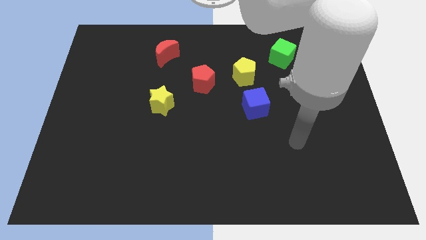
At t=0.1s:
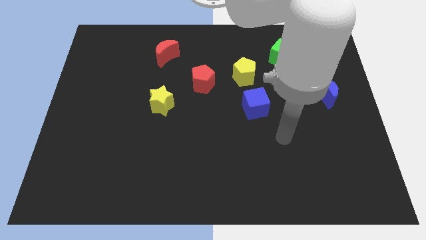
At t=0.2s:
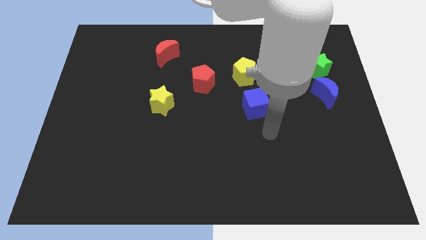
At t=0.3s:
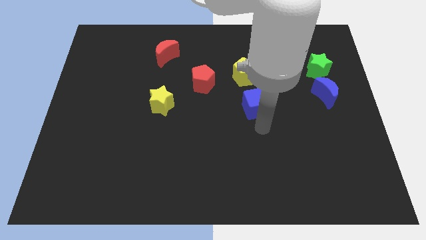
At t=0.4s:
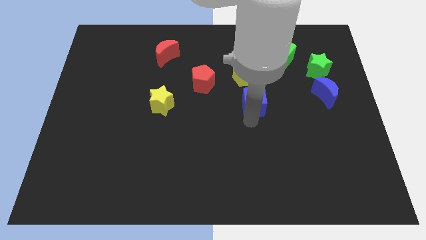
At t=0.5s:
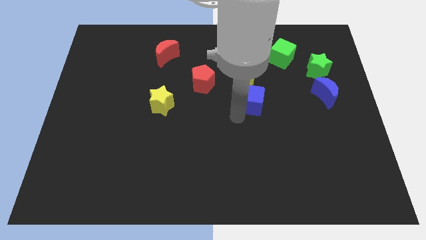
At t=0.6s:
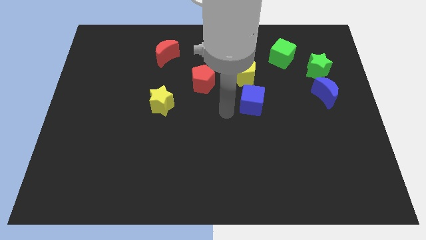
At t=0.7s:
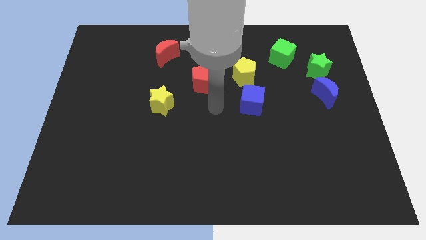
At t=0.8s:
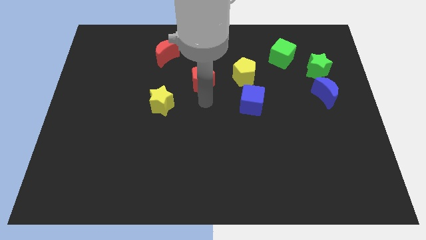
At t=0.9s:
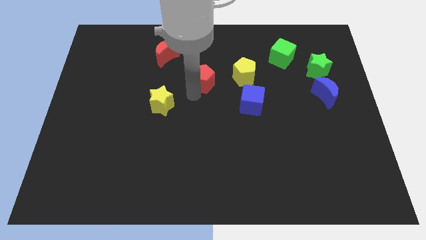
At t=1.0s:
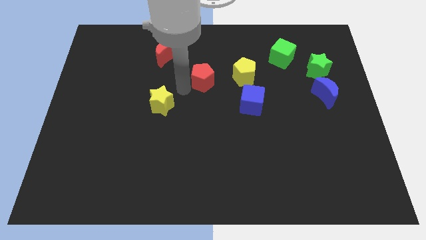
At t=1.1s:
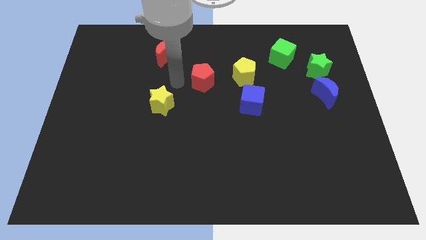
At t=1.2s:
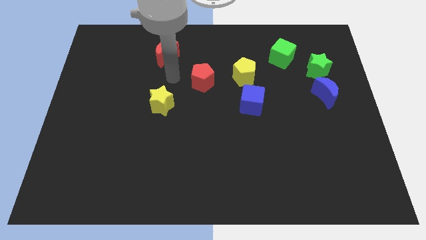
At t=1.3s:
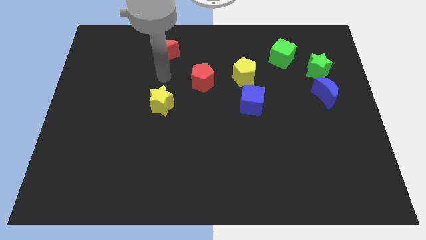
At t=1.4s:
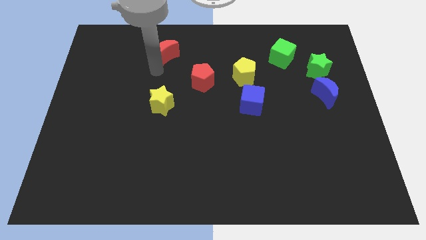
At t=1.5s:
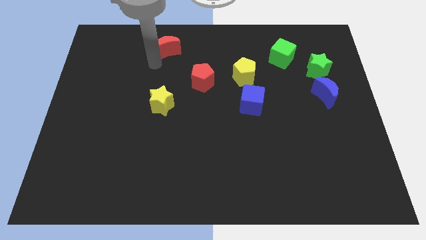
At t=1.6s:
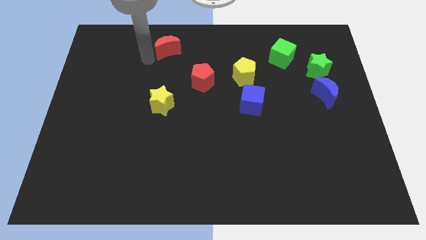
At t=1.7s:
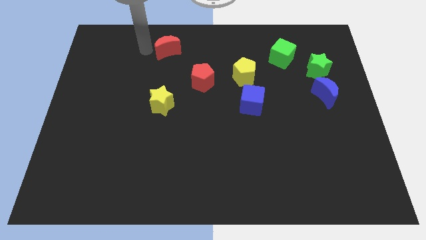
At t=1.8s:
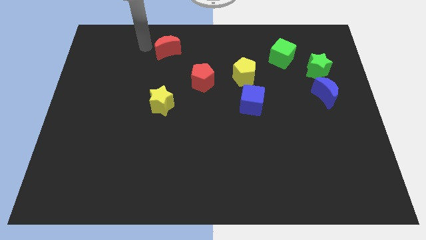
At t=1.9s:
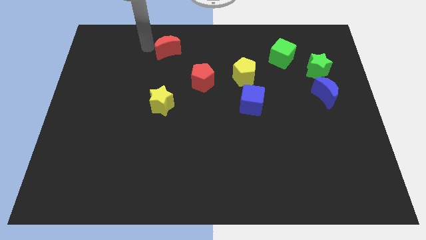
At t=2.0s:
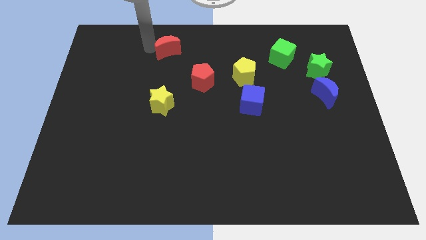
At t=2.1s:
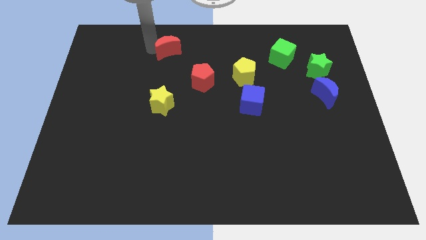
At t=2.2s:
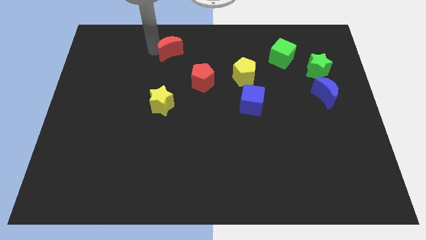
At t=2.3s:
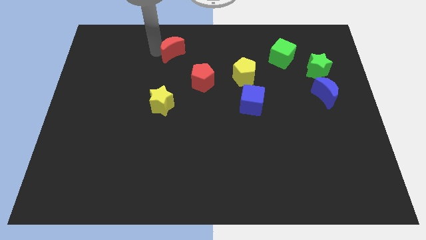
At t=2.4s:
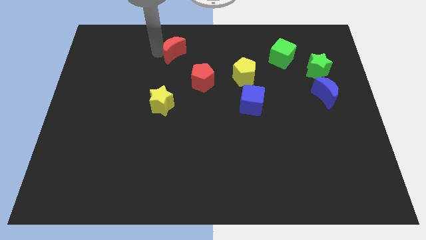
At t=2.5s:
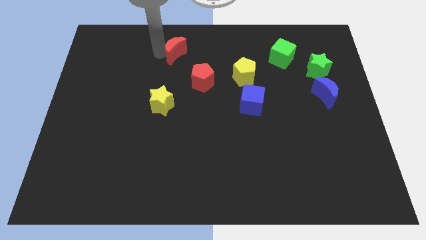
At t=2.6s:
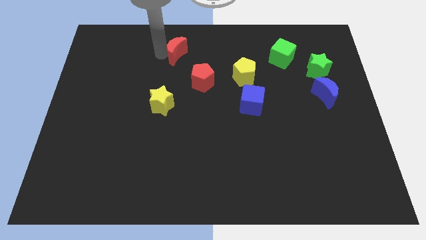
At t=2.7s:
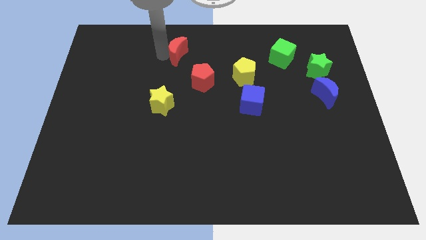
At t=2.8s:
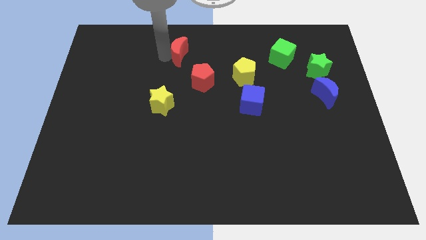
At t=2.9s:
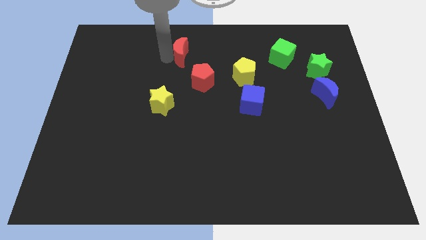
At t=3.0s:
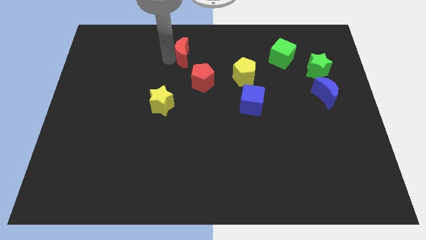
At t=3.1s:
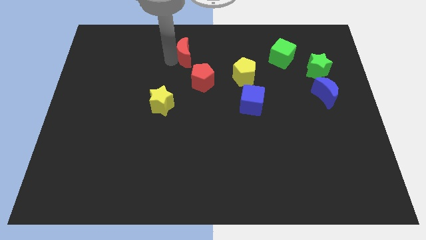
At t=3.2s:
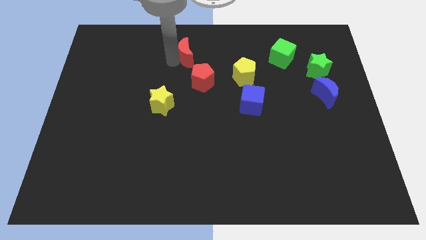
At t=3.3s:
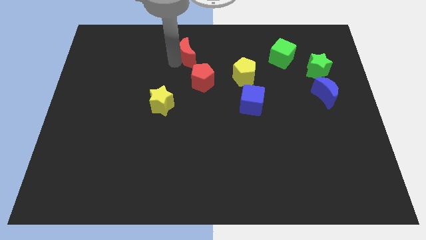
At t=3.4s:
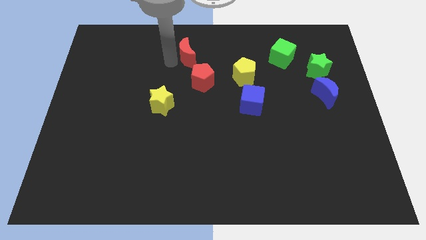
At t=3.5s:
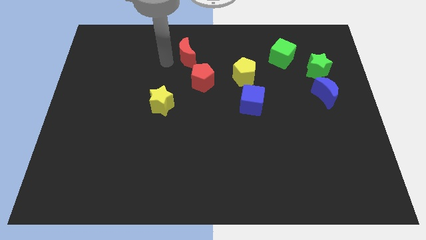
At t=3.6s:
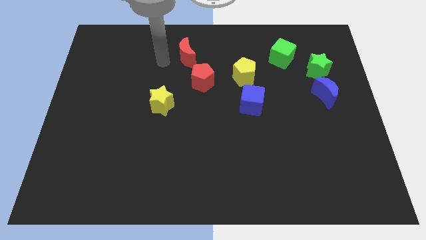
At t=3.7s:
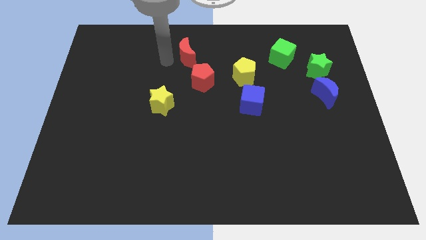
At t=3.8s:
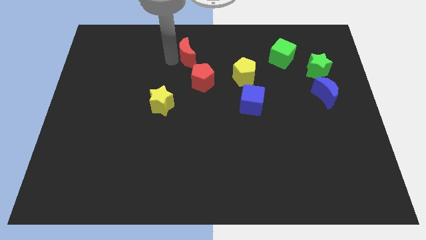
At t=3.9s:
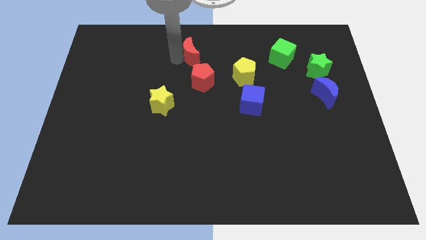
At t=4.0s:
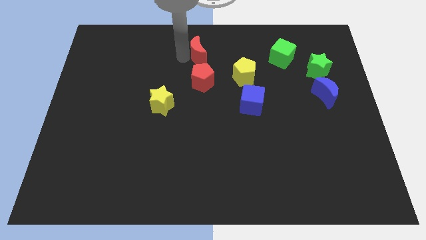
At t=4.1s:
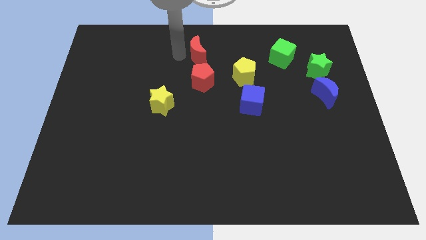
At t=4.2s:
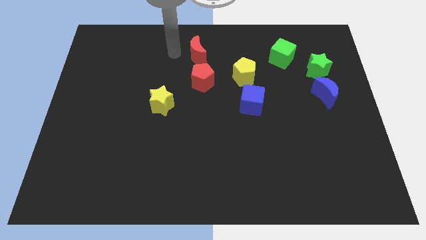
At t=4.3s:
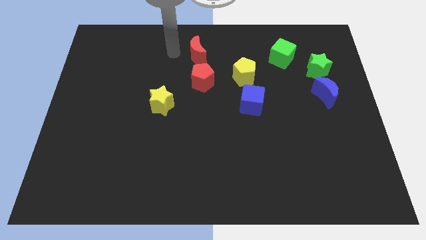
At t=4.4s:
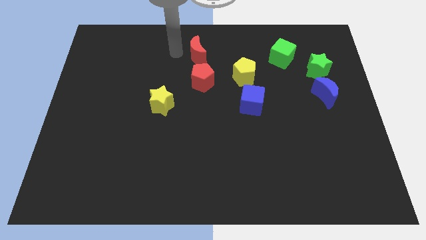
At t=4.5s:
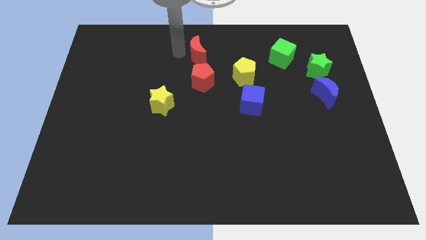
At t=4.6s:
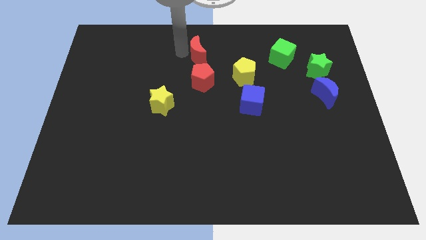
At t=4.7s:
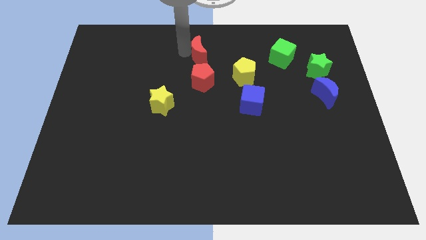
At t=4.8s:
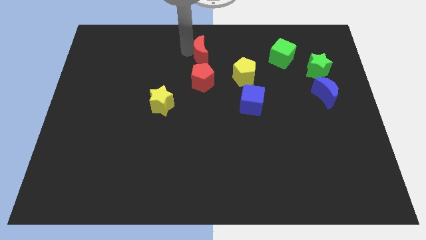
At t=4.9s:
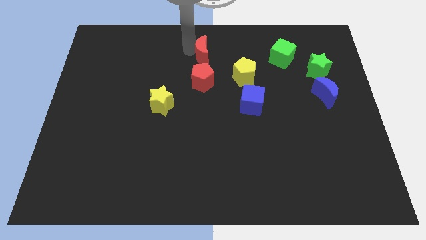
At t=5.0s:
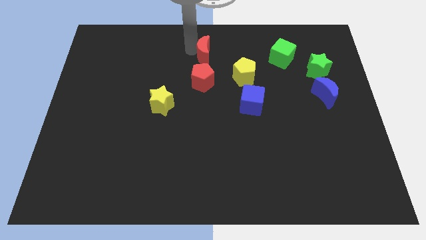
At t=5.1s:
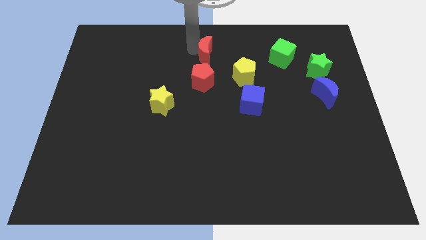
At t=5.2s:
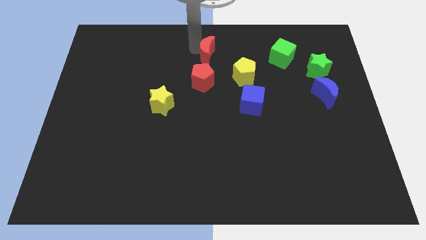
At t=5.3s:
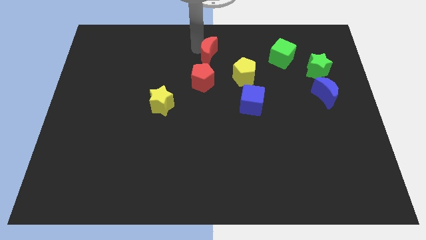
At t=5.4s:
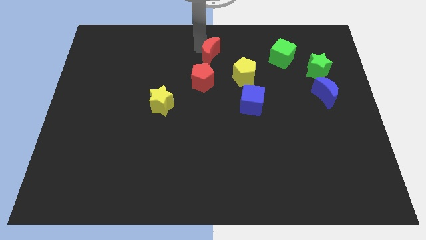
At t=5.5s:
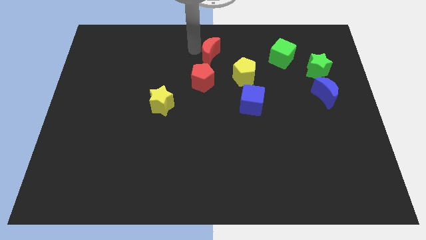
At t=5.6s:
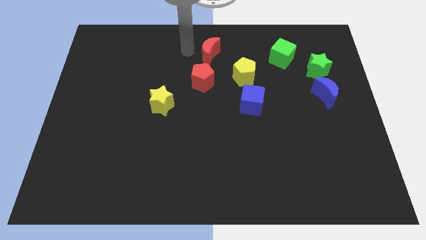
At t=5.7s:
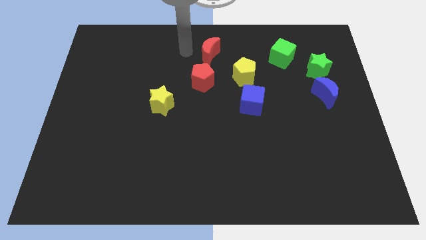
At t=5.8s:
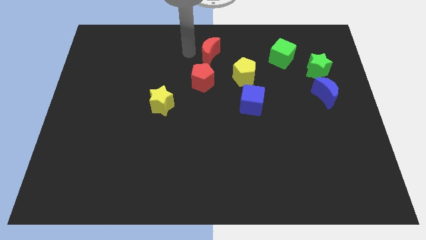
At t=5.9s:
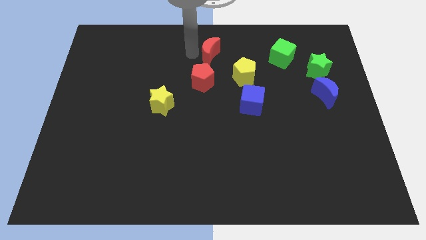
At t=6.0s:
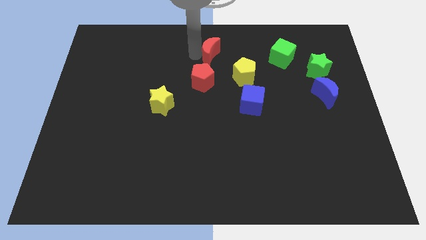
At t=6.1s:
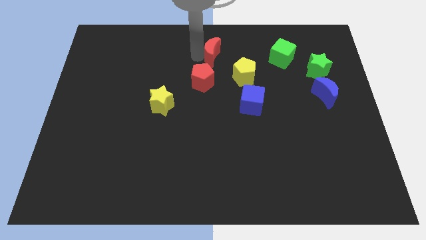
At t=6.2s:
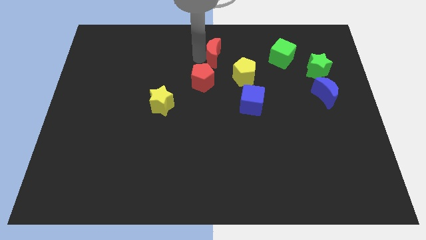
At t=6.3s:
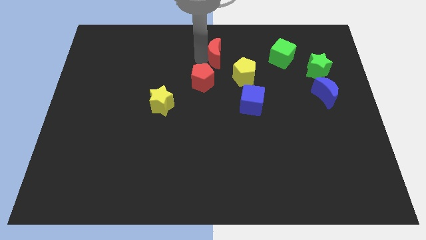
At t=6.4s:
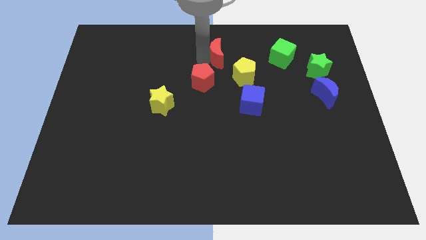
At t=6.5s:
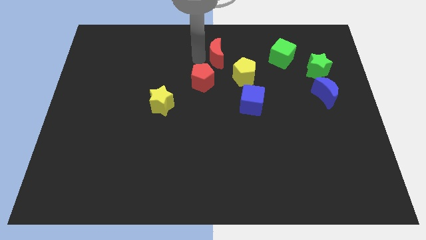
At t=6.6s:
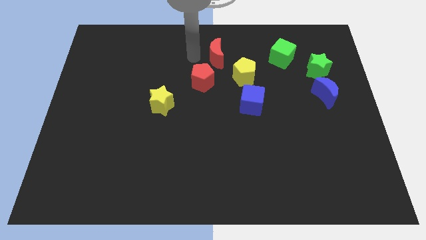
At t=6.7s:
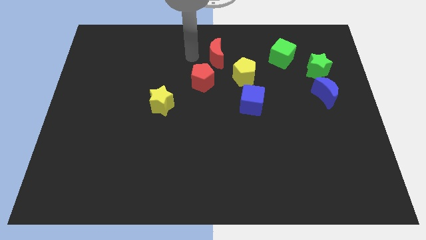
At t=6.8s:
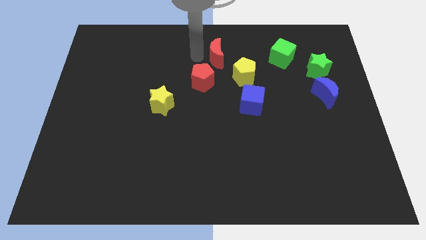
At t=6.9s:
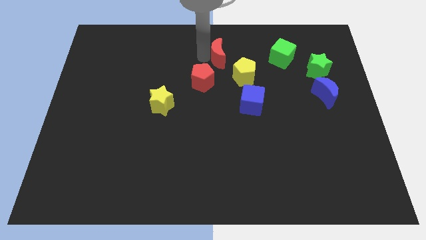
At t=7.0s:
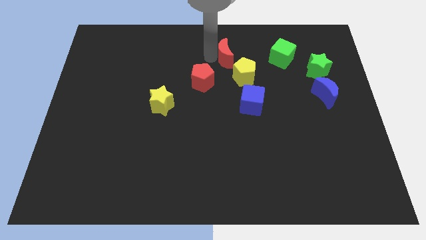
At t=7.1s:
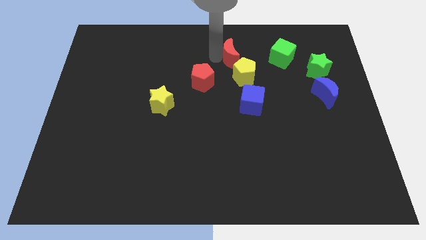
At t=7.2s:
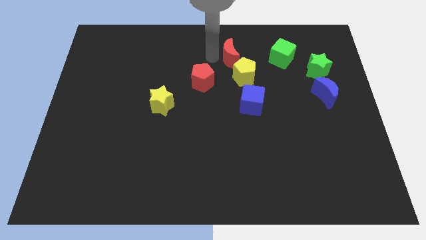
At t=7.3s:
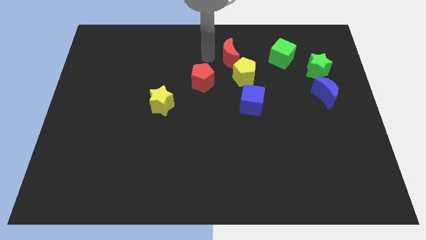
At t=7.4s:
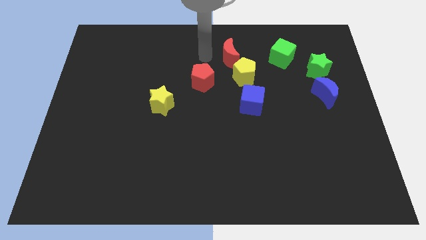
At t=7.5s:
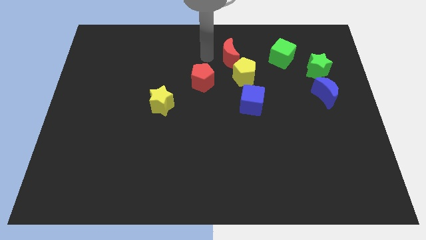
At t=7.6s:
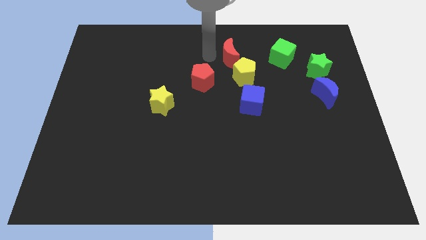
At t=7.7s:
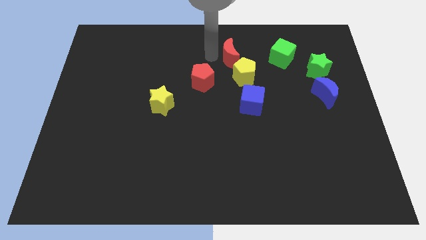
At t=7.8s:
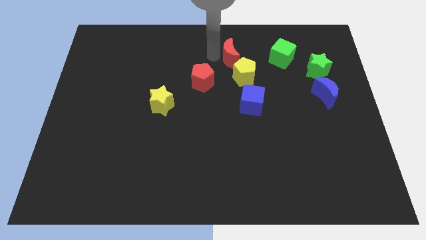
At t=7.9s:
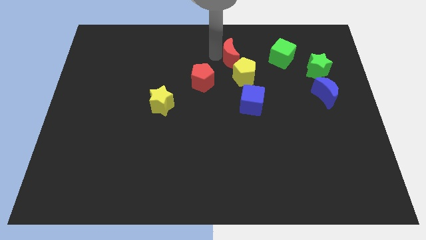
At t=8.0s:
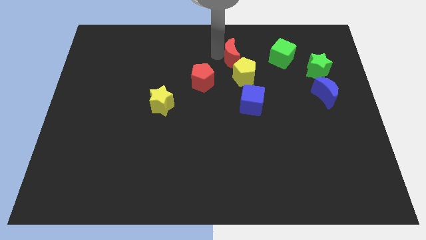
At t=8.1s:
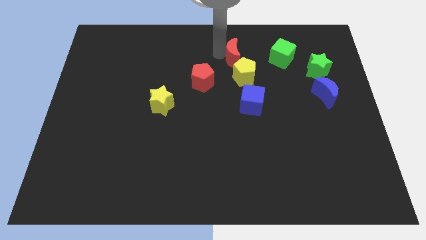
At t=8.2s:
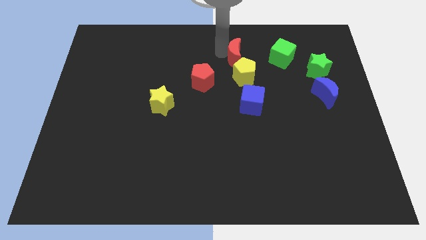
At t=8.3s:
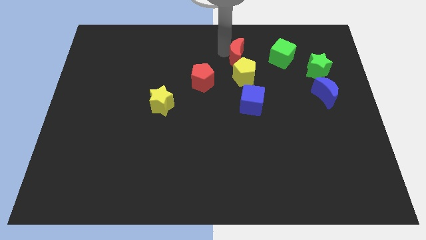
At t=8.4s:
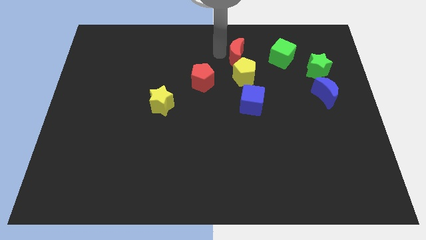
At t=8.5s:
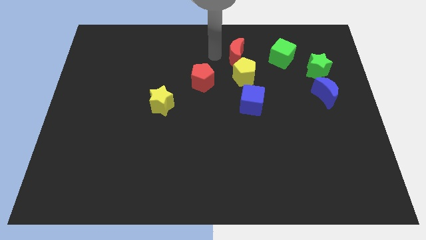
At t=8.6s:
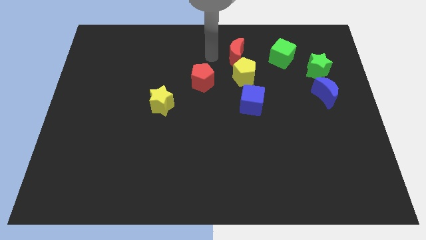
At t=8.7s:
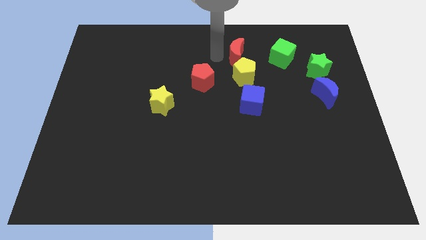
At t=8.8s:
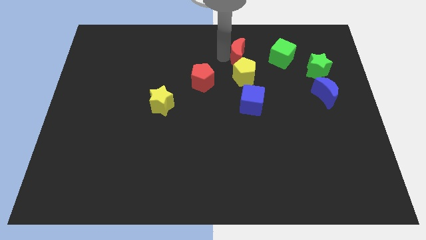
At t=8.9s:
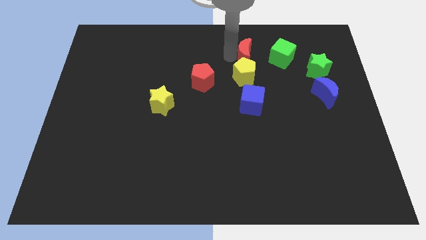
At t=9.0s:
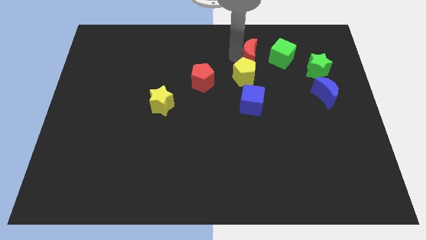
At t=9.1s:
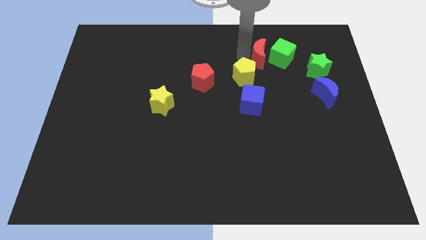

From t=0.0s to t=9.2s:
put the red moon towards the green cube
